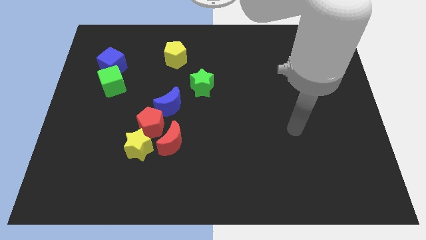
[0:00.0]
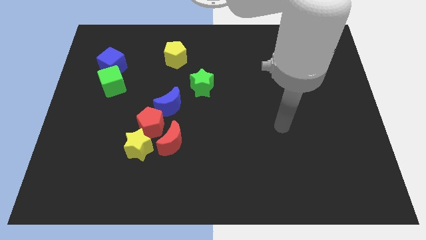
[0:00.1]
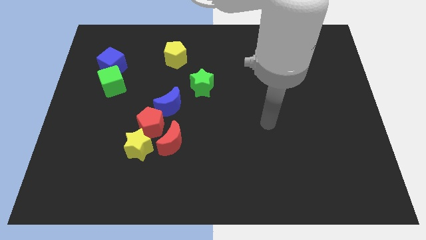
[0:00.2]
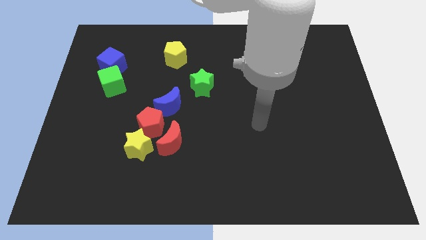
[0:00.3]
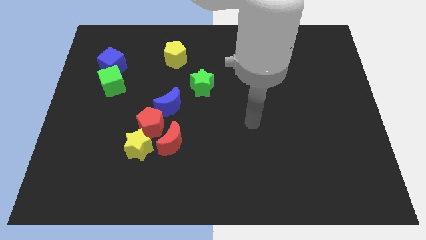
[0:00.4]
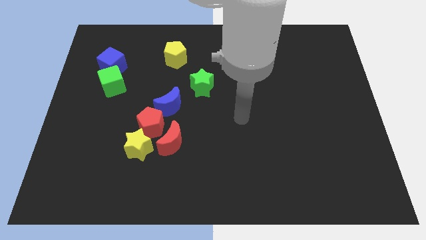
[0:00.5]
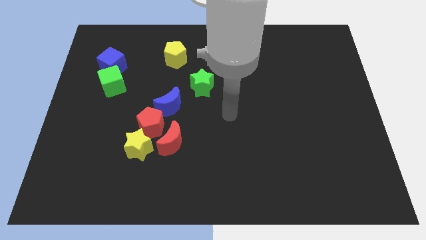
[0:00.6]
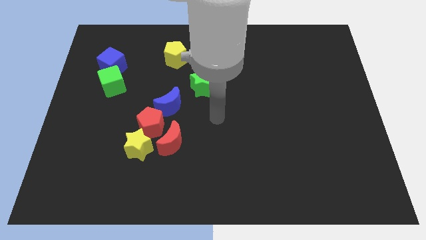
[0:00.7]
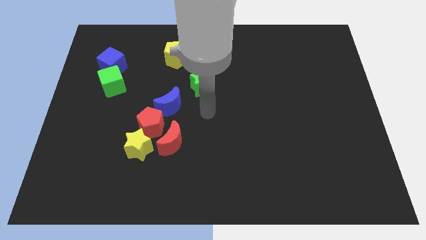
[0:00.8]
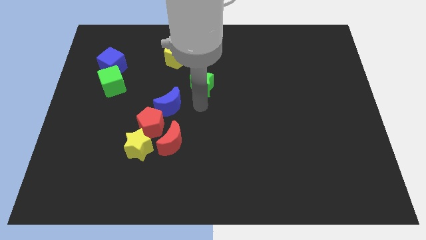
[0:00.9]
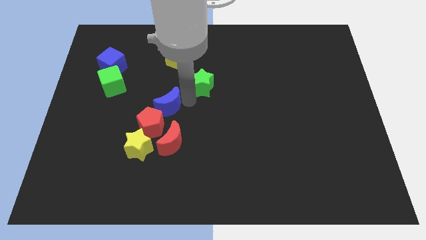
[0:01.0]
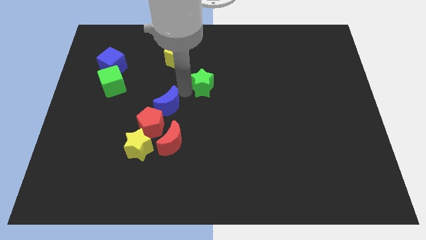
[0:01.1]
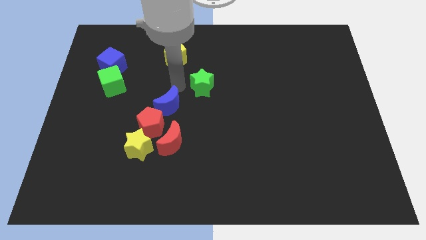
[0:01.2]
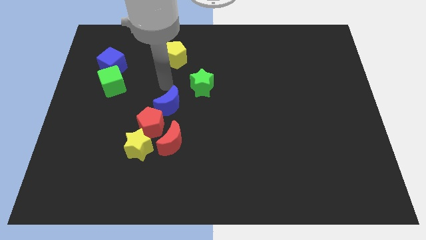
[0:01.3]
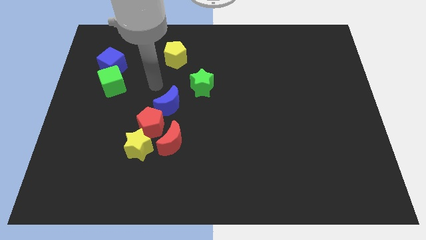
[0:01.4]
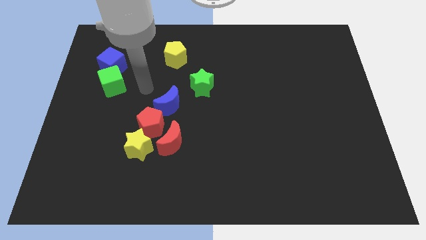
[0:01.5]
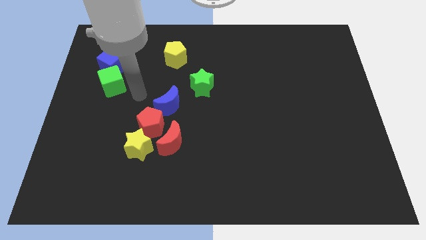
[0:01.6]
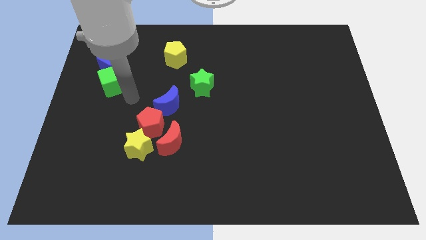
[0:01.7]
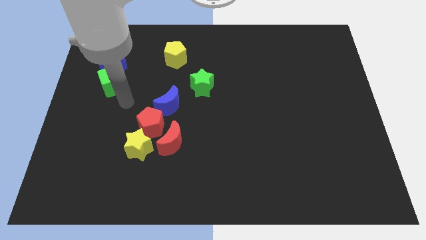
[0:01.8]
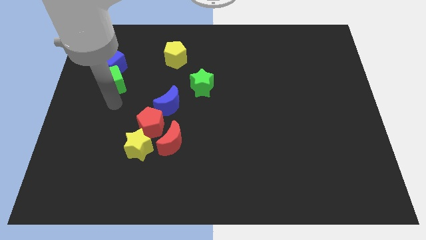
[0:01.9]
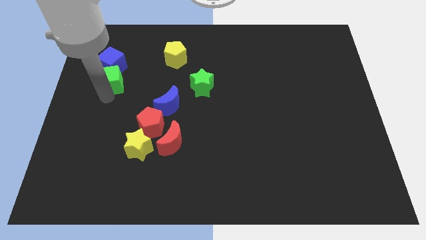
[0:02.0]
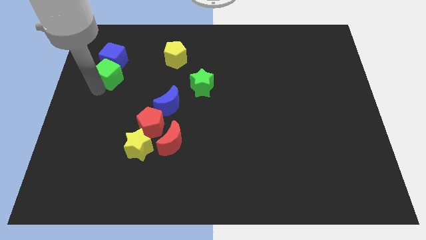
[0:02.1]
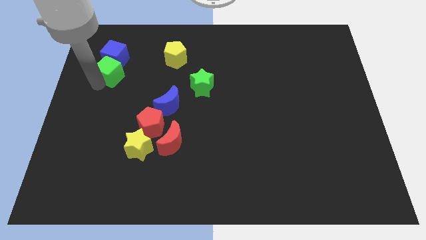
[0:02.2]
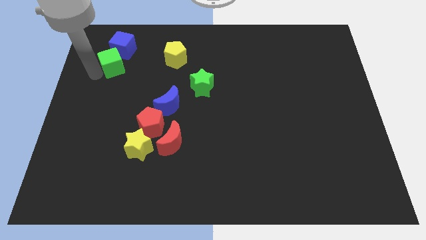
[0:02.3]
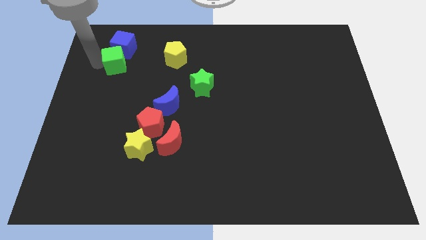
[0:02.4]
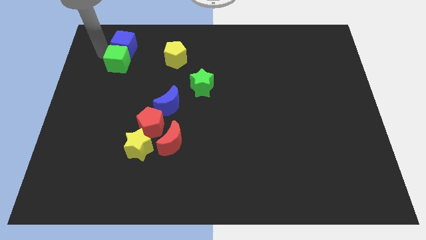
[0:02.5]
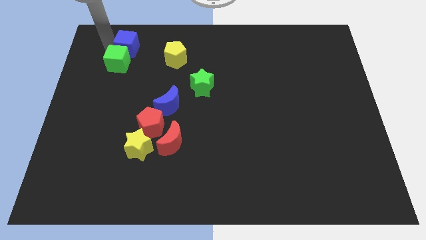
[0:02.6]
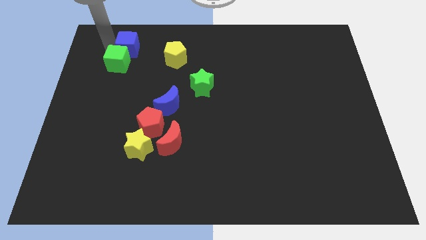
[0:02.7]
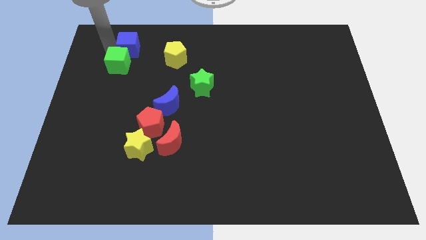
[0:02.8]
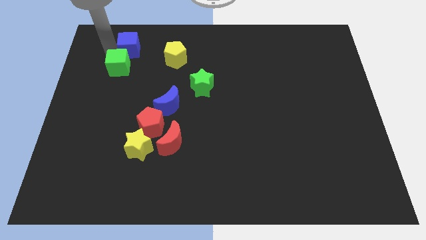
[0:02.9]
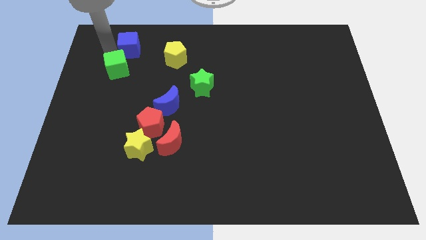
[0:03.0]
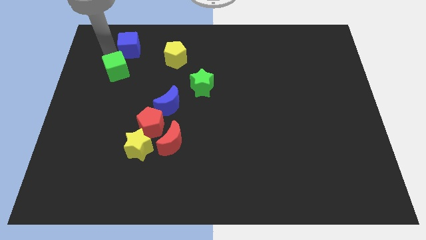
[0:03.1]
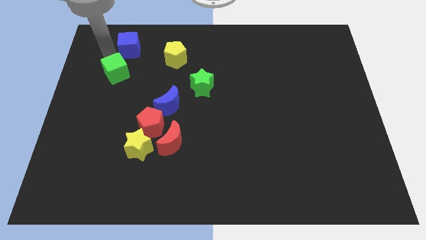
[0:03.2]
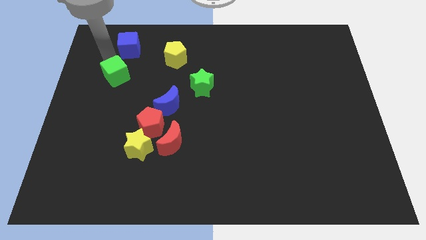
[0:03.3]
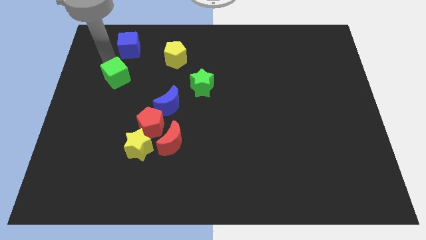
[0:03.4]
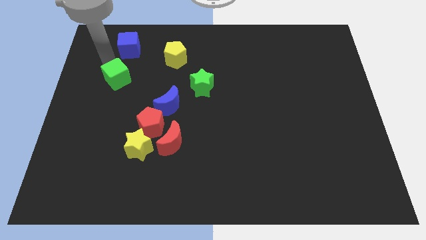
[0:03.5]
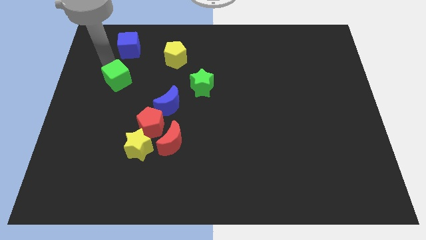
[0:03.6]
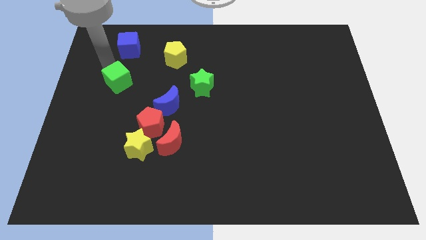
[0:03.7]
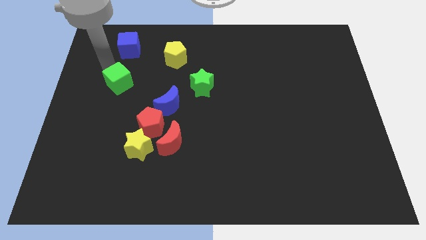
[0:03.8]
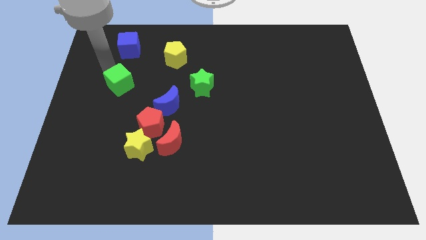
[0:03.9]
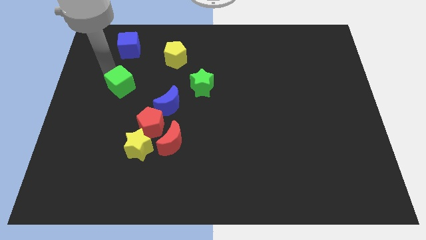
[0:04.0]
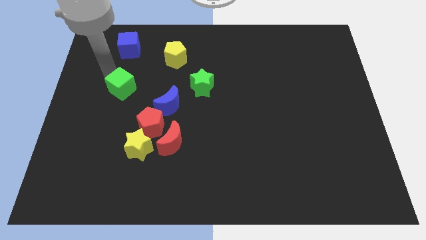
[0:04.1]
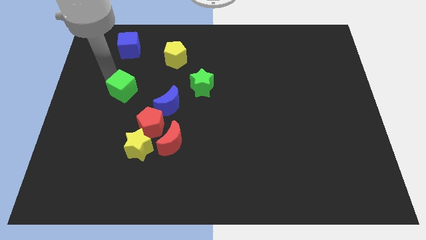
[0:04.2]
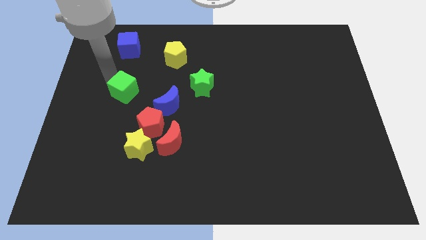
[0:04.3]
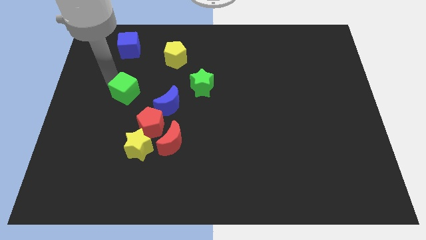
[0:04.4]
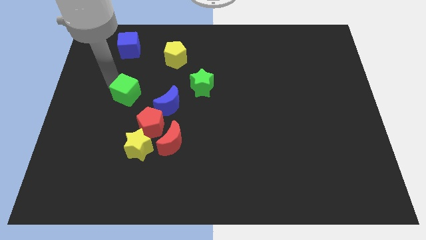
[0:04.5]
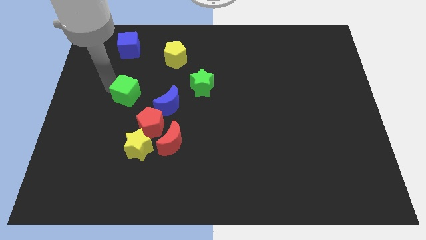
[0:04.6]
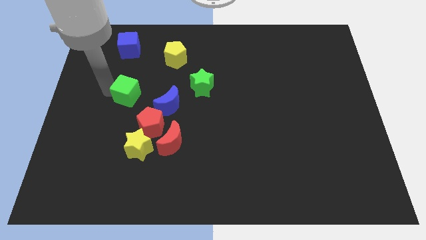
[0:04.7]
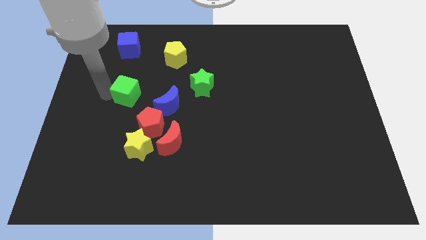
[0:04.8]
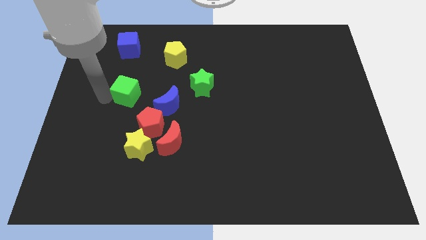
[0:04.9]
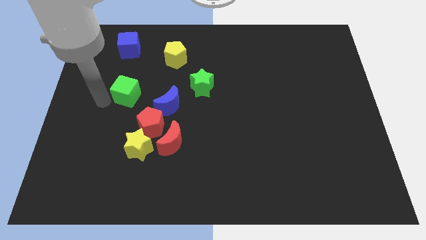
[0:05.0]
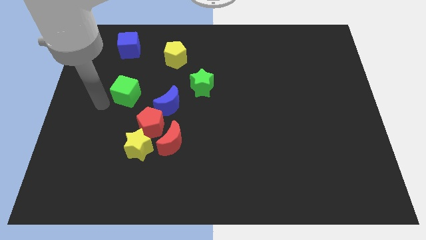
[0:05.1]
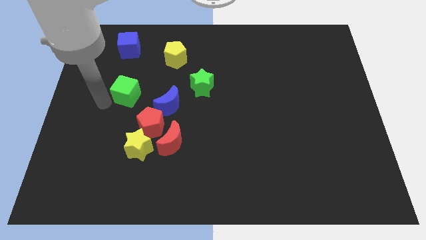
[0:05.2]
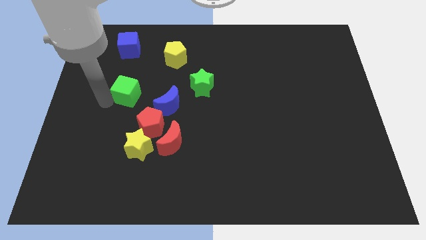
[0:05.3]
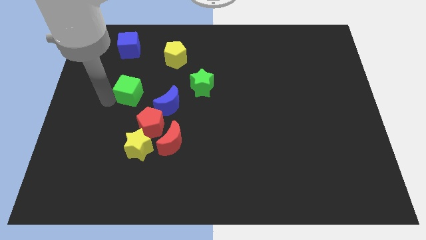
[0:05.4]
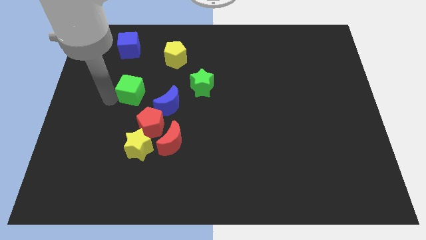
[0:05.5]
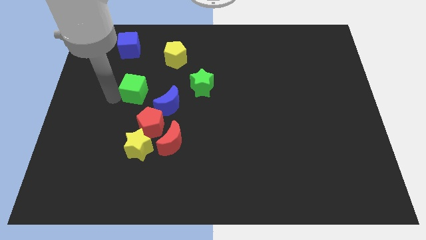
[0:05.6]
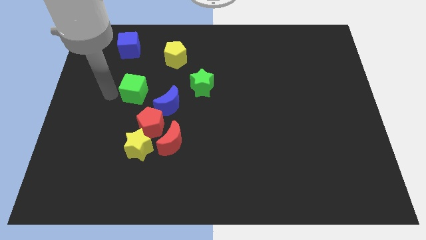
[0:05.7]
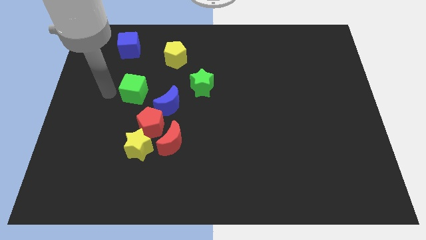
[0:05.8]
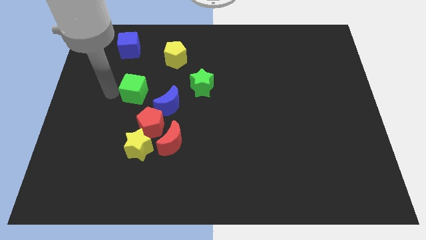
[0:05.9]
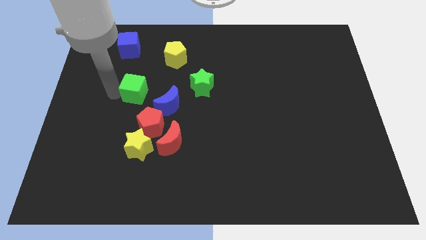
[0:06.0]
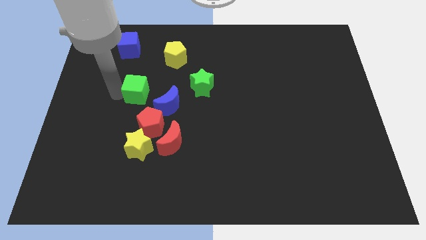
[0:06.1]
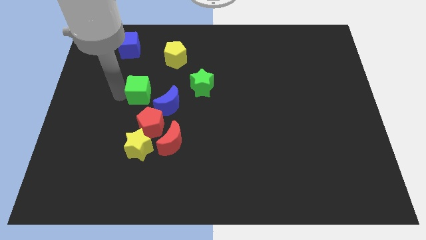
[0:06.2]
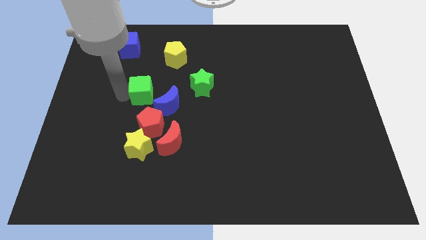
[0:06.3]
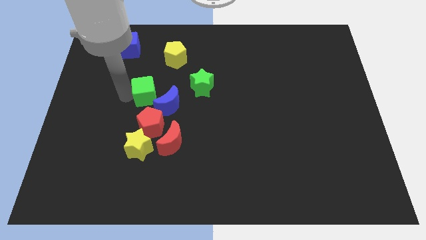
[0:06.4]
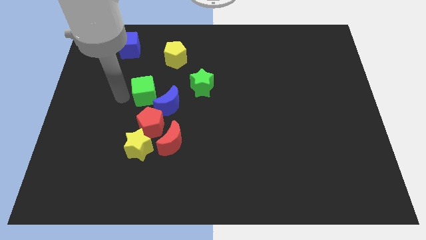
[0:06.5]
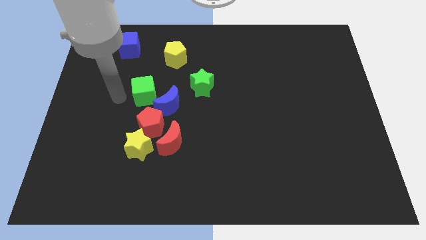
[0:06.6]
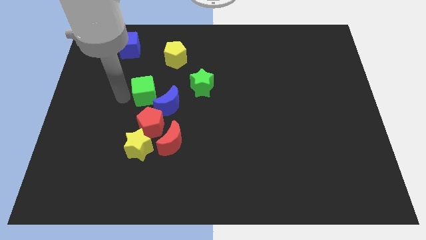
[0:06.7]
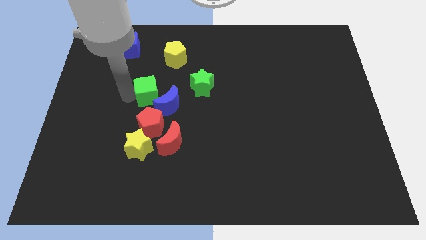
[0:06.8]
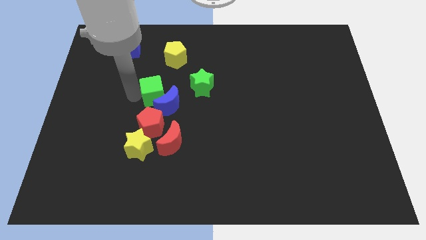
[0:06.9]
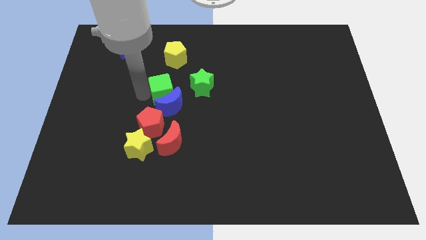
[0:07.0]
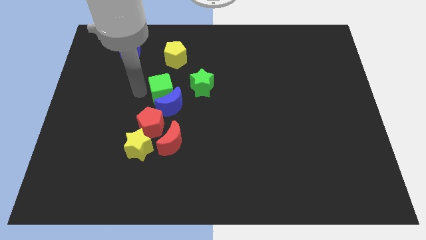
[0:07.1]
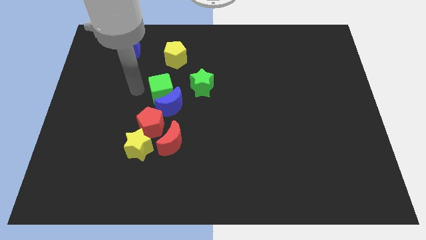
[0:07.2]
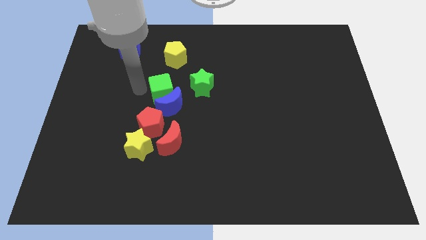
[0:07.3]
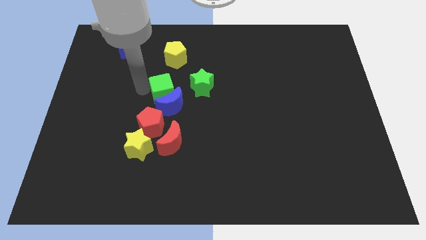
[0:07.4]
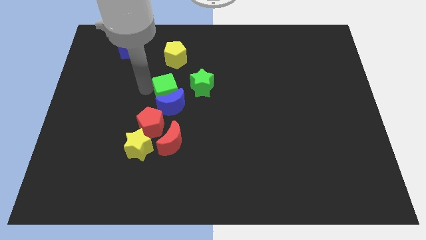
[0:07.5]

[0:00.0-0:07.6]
put the green cube to the top right side of the red pentagon

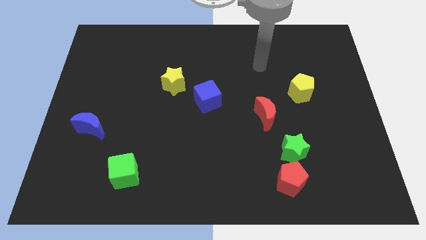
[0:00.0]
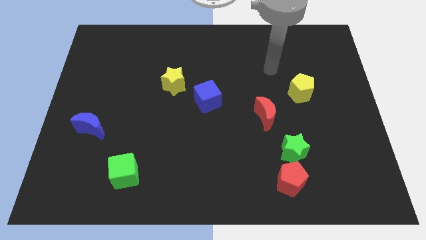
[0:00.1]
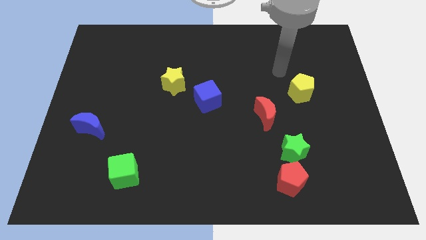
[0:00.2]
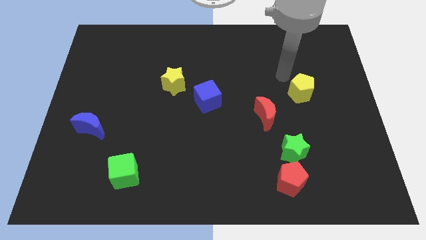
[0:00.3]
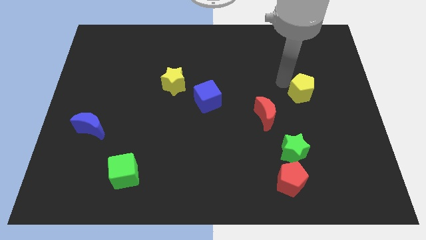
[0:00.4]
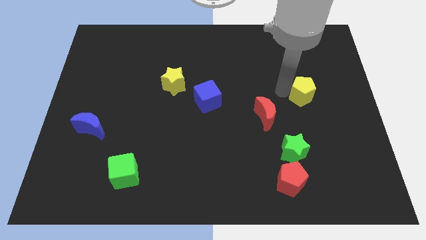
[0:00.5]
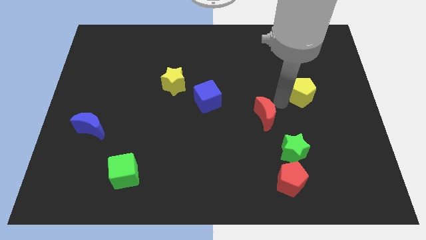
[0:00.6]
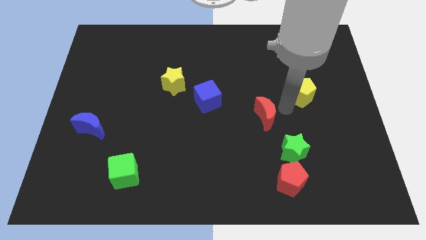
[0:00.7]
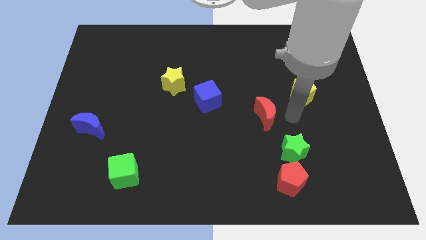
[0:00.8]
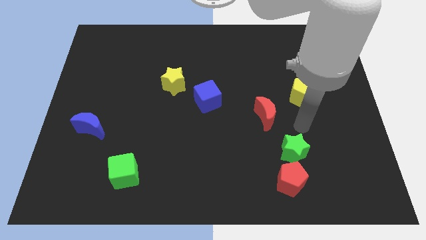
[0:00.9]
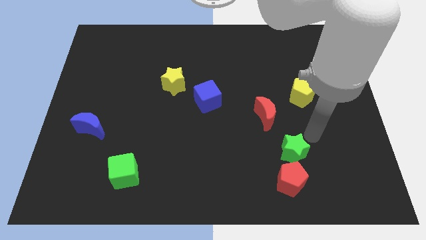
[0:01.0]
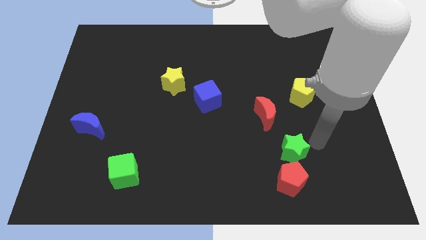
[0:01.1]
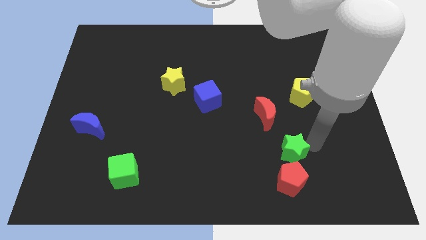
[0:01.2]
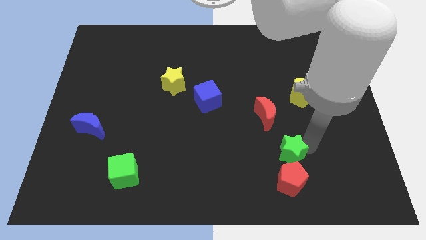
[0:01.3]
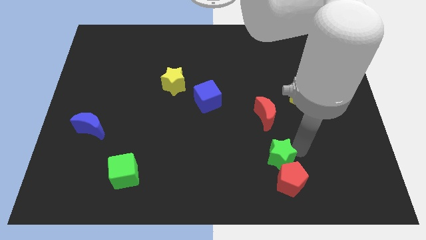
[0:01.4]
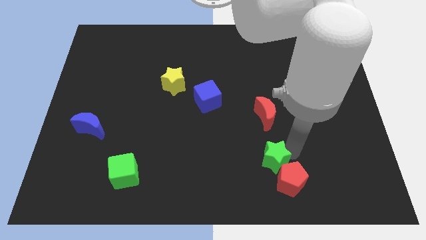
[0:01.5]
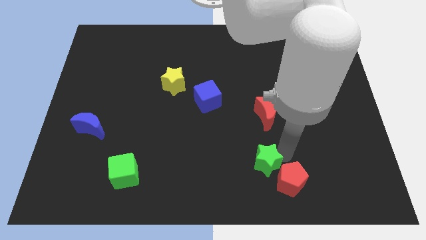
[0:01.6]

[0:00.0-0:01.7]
slide the green star to the left of the red pentagon
